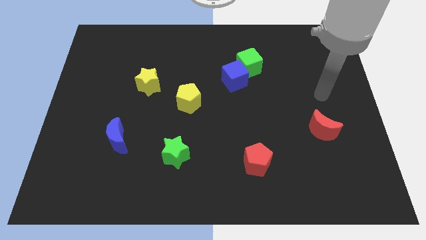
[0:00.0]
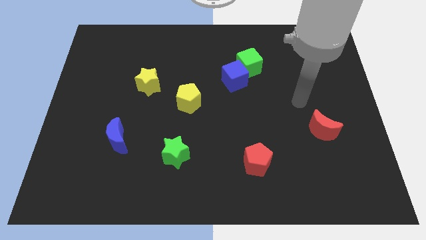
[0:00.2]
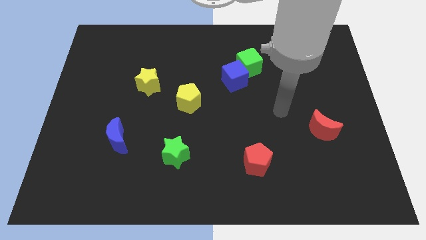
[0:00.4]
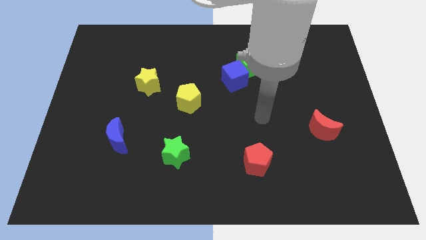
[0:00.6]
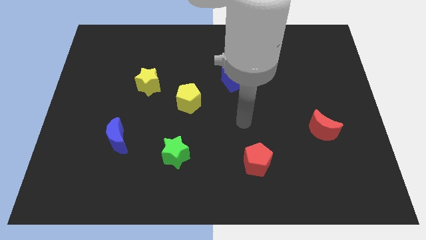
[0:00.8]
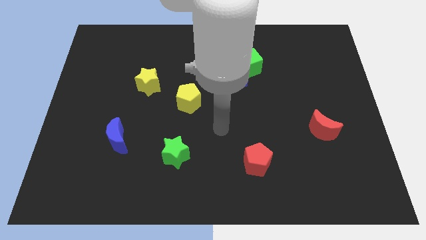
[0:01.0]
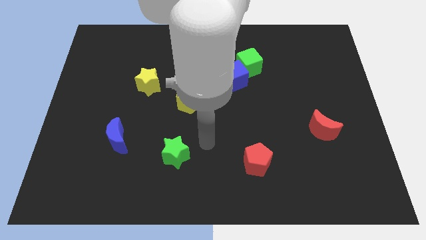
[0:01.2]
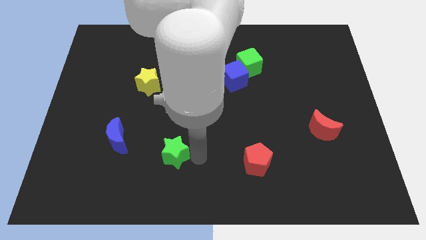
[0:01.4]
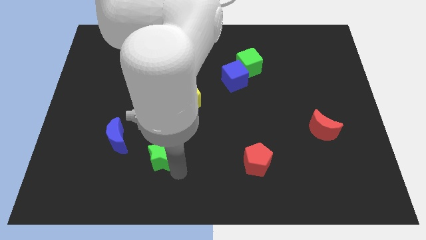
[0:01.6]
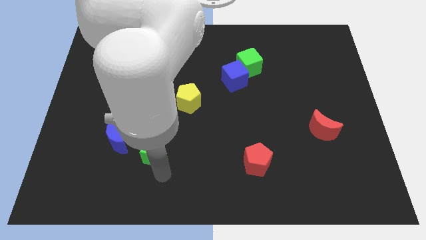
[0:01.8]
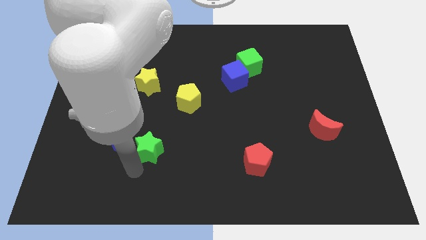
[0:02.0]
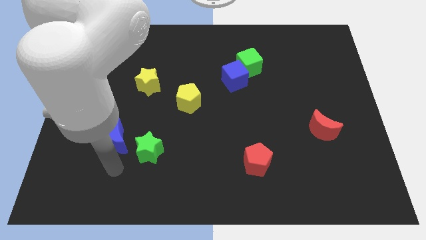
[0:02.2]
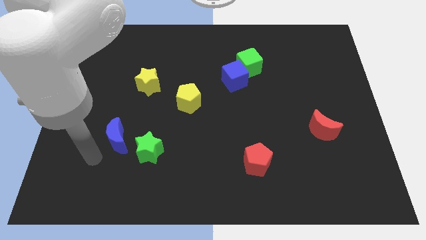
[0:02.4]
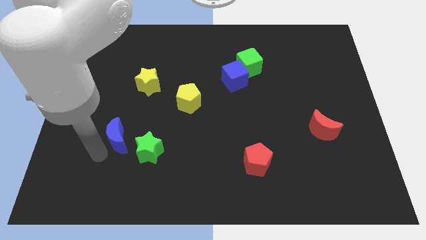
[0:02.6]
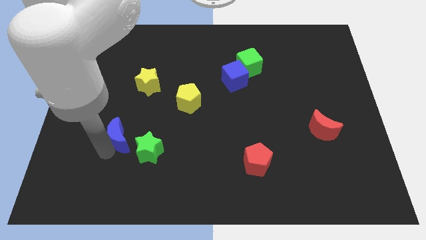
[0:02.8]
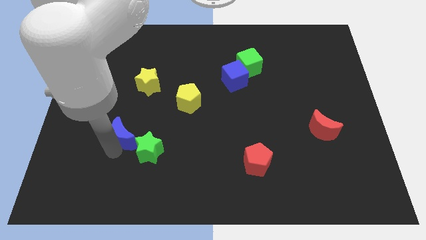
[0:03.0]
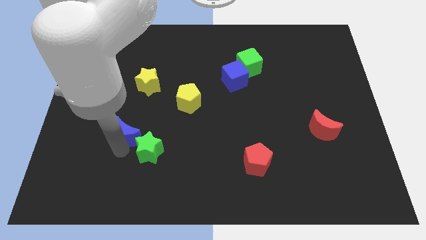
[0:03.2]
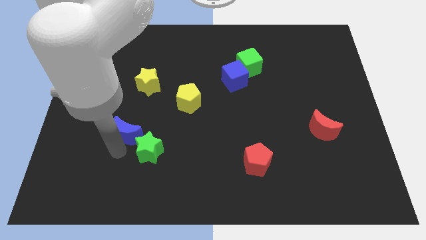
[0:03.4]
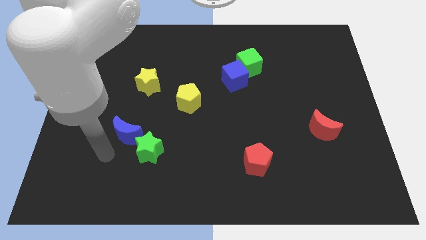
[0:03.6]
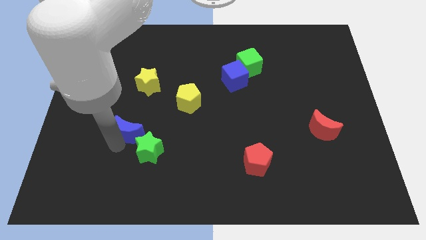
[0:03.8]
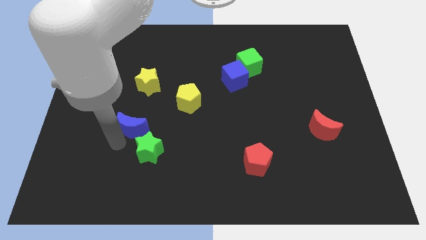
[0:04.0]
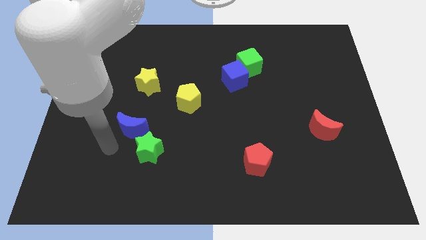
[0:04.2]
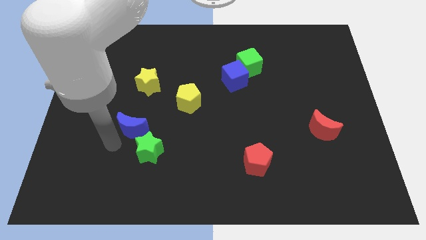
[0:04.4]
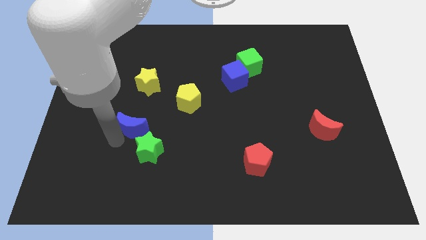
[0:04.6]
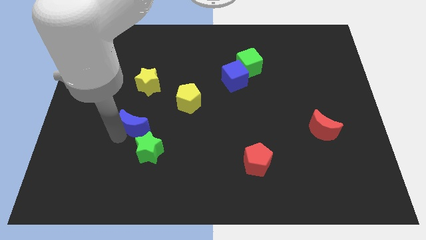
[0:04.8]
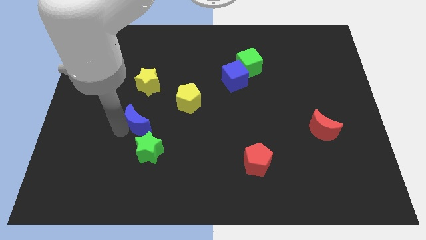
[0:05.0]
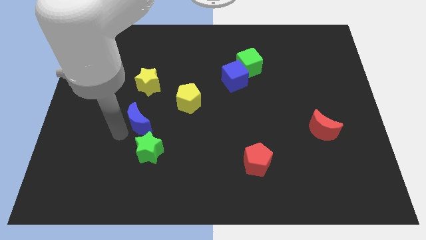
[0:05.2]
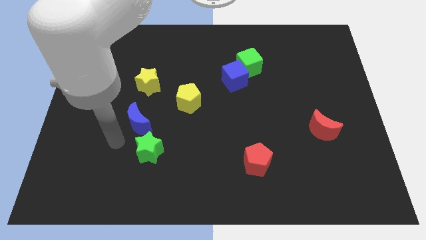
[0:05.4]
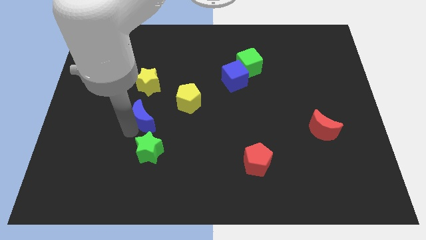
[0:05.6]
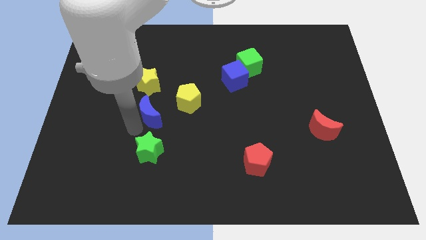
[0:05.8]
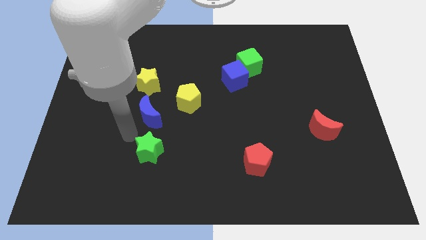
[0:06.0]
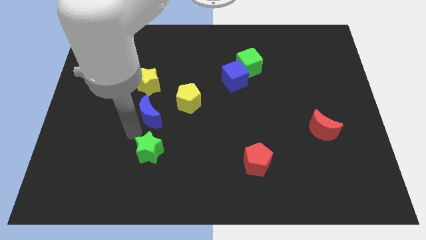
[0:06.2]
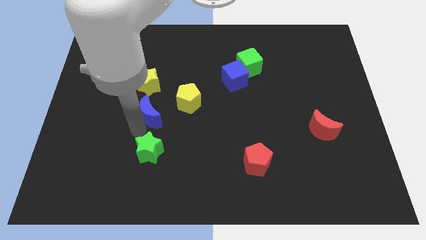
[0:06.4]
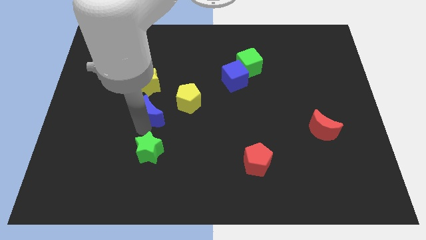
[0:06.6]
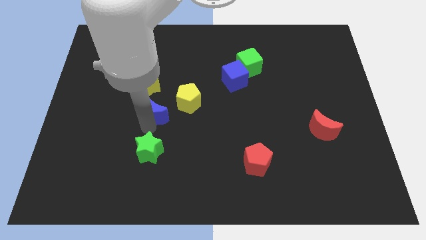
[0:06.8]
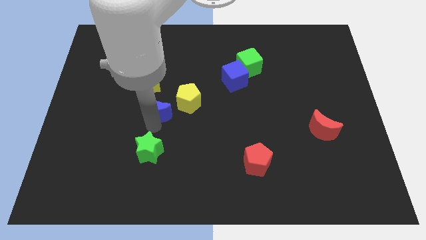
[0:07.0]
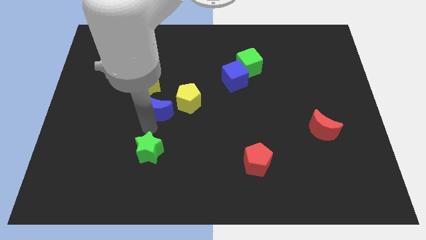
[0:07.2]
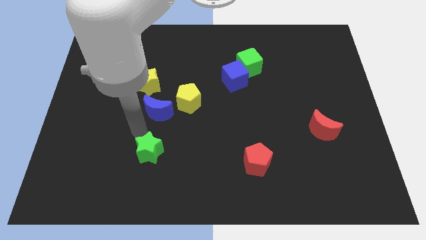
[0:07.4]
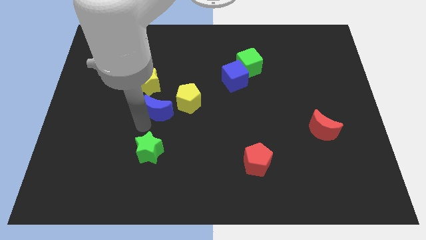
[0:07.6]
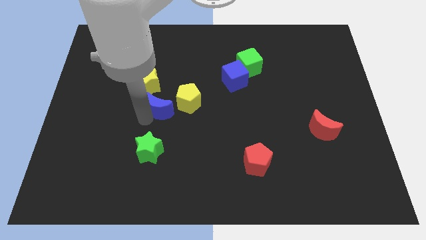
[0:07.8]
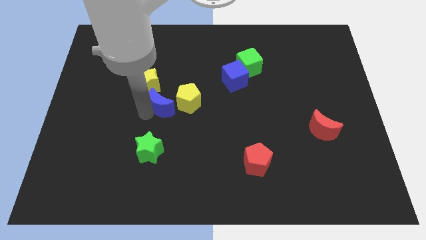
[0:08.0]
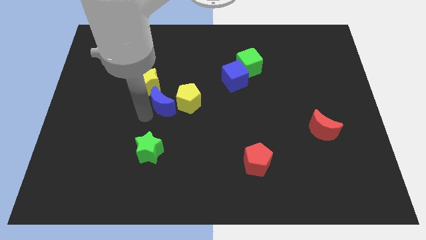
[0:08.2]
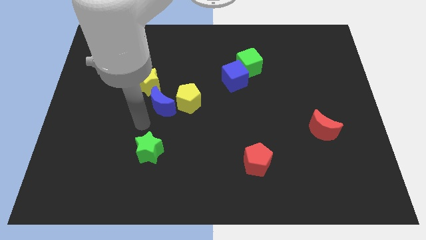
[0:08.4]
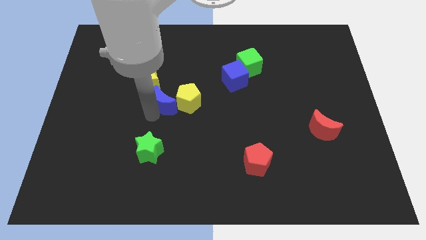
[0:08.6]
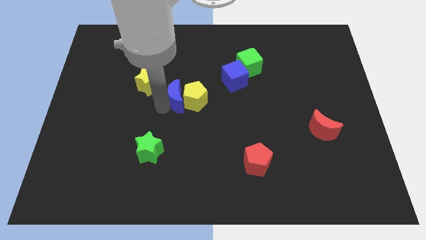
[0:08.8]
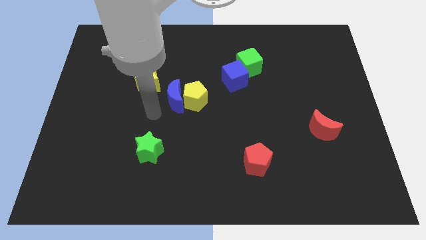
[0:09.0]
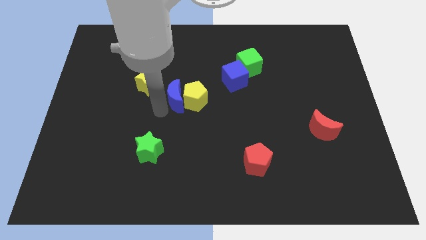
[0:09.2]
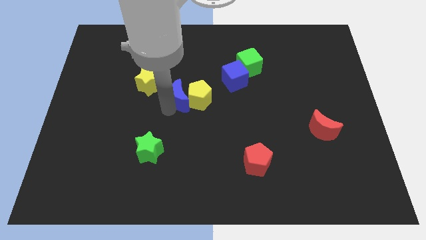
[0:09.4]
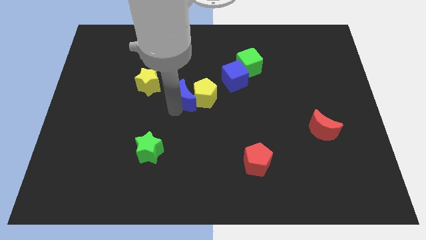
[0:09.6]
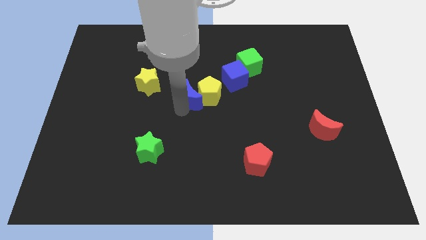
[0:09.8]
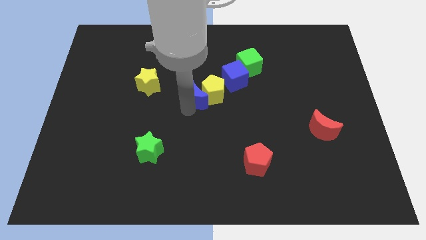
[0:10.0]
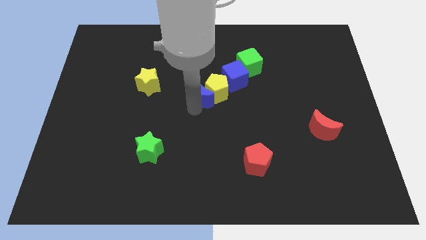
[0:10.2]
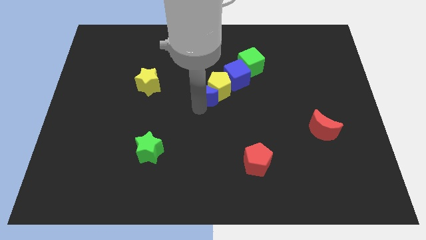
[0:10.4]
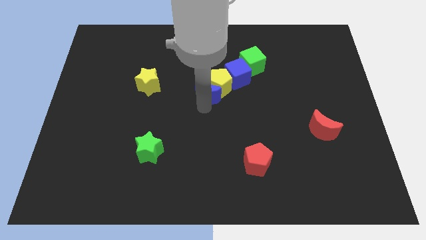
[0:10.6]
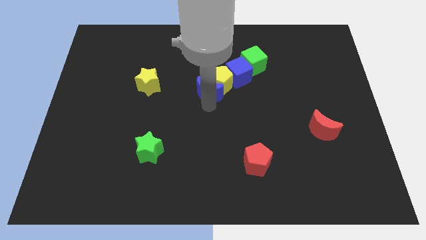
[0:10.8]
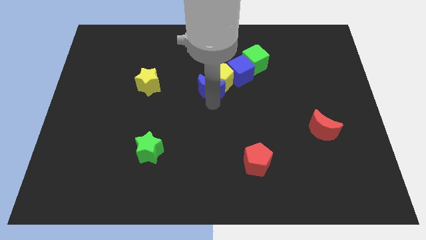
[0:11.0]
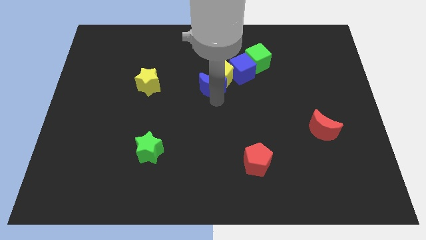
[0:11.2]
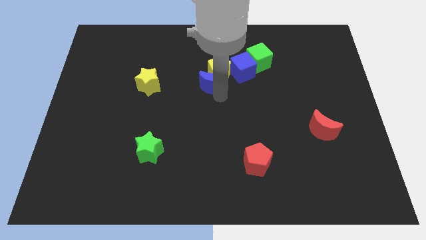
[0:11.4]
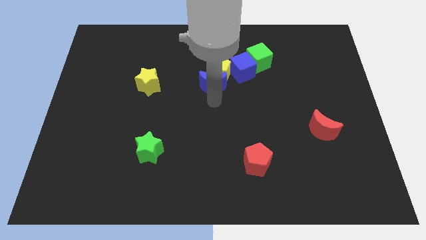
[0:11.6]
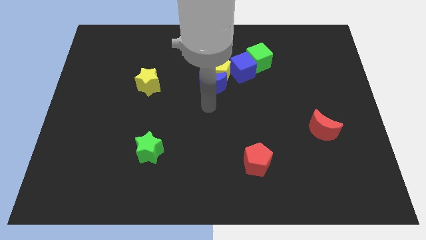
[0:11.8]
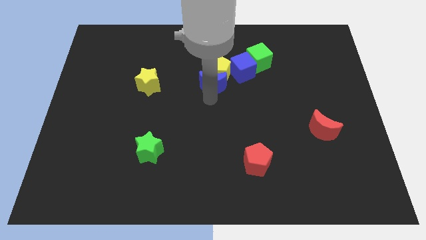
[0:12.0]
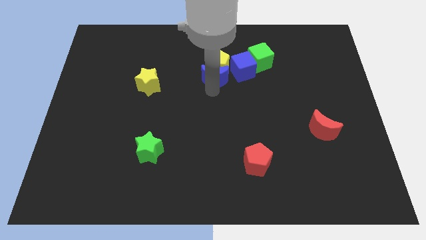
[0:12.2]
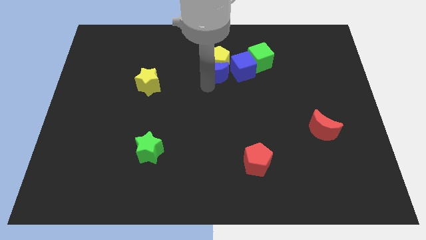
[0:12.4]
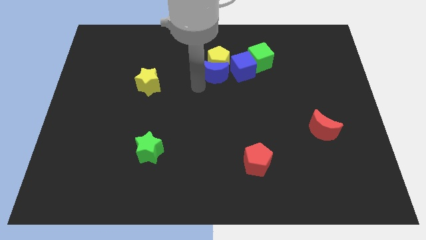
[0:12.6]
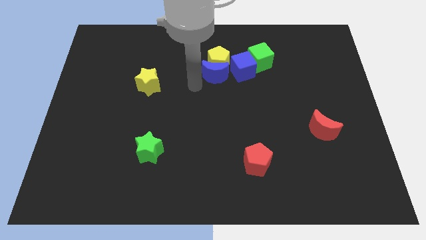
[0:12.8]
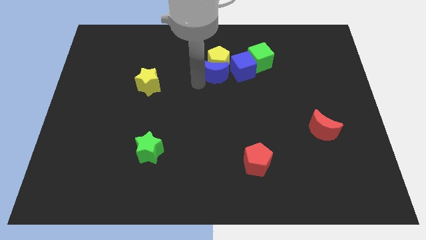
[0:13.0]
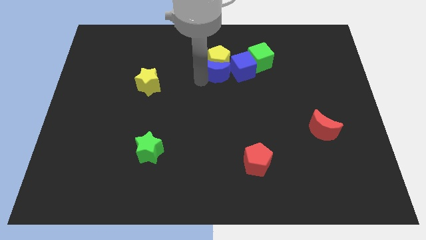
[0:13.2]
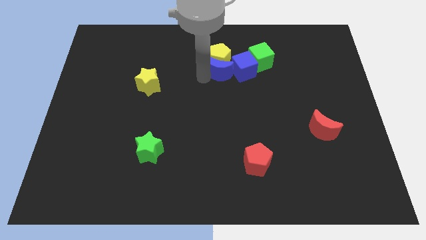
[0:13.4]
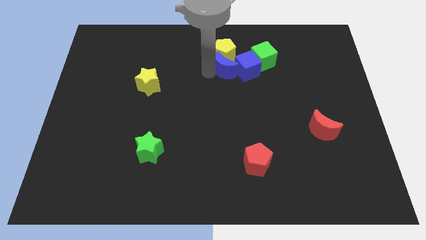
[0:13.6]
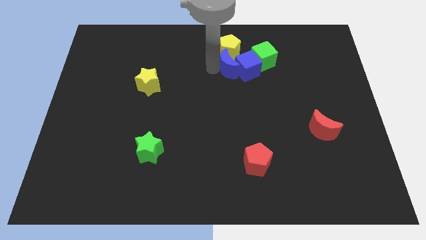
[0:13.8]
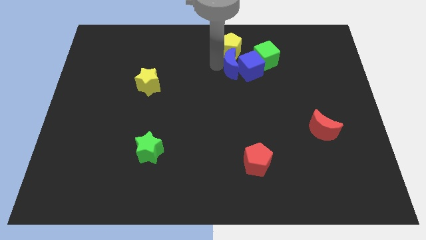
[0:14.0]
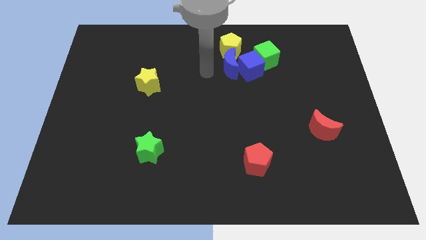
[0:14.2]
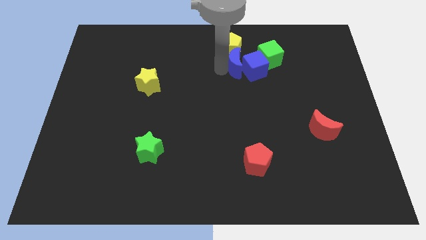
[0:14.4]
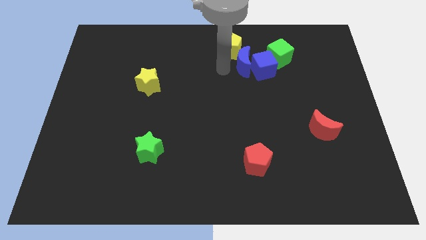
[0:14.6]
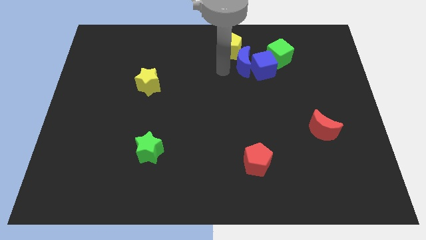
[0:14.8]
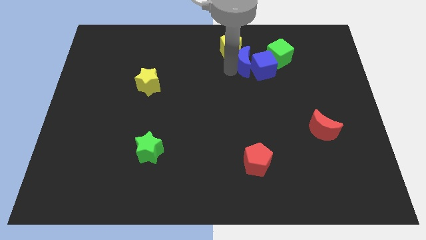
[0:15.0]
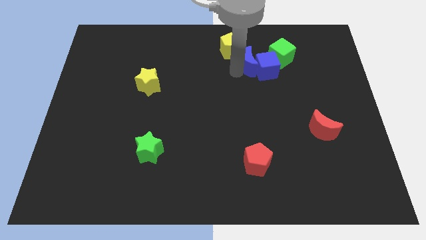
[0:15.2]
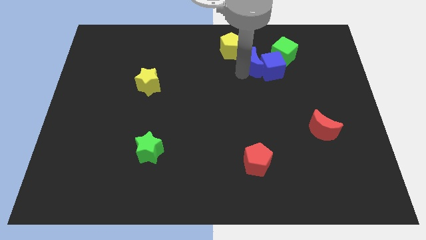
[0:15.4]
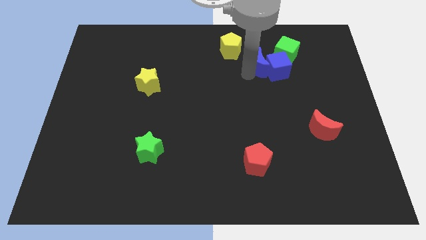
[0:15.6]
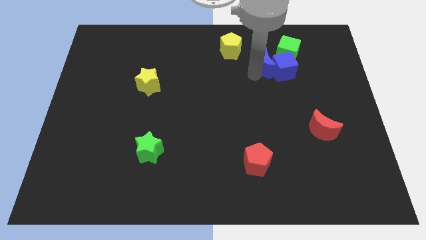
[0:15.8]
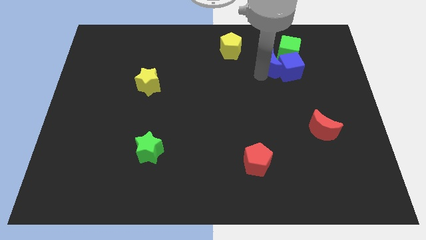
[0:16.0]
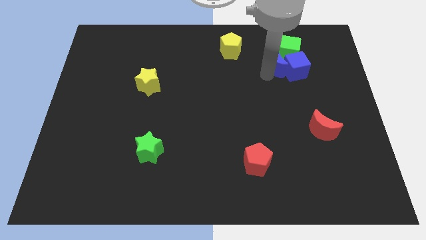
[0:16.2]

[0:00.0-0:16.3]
slide the blue moon to the green cube
